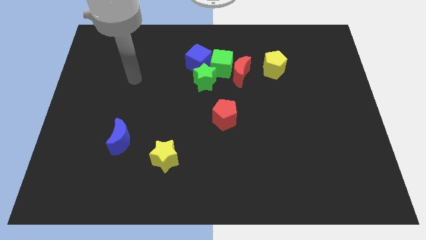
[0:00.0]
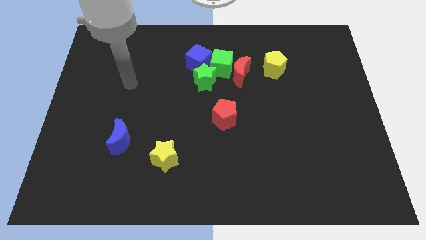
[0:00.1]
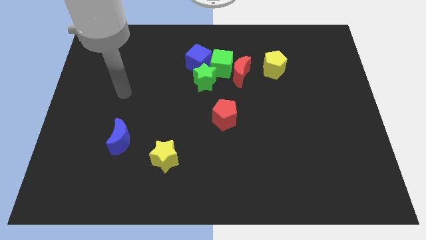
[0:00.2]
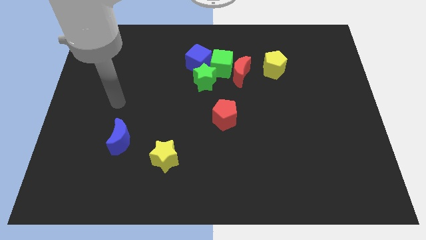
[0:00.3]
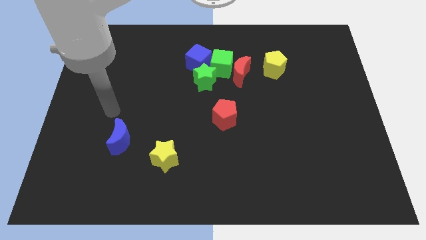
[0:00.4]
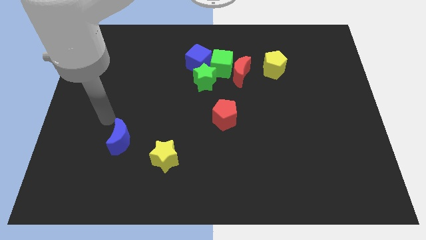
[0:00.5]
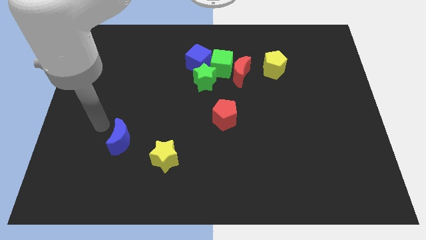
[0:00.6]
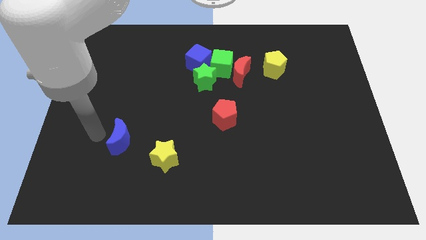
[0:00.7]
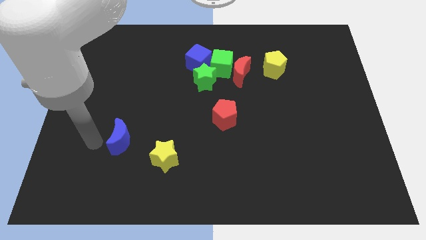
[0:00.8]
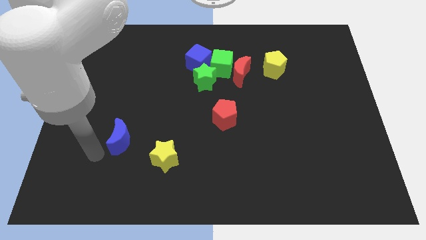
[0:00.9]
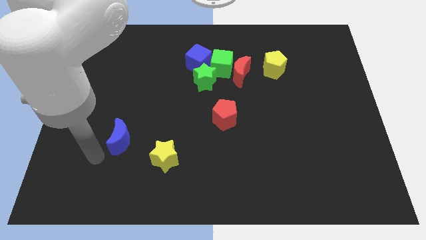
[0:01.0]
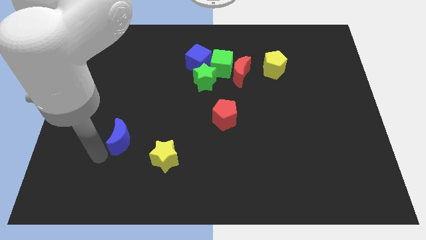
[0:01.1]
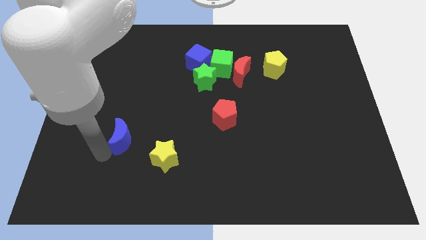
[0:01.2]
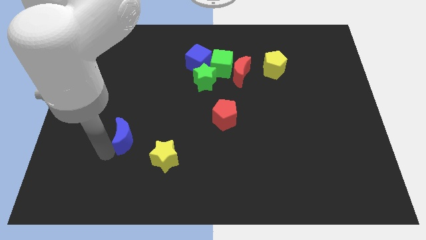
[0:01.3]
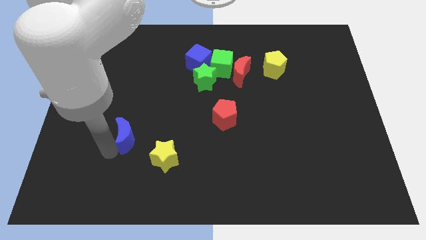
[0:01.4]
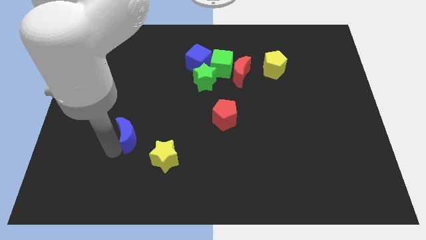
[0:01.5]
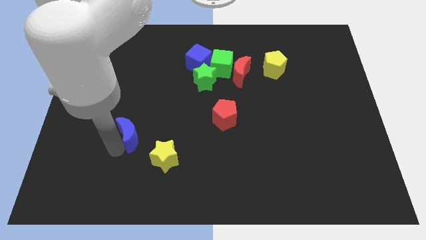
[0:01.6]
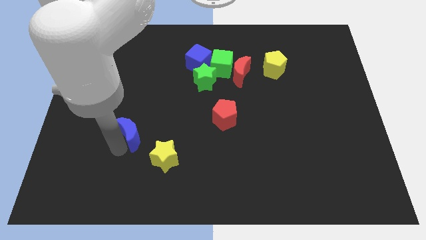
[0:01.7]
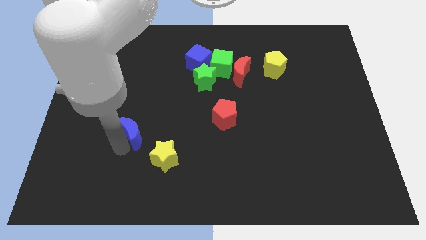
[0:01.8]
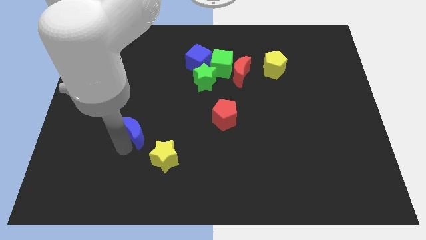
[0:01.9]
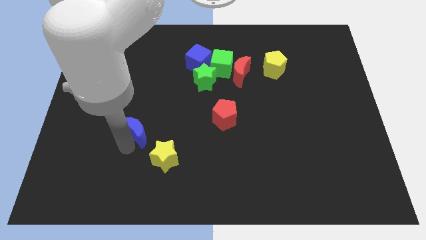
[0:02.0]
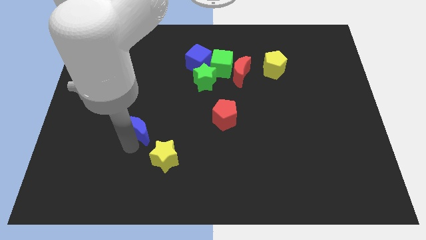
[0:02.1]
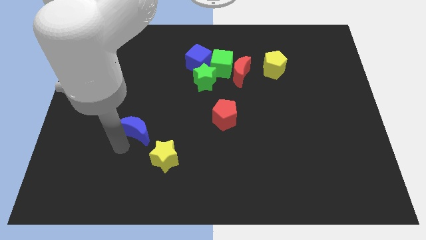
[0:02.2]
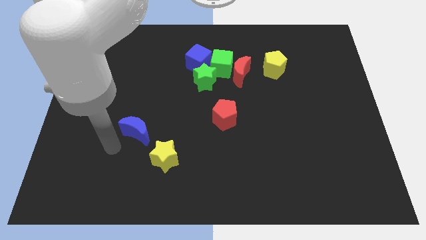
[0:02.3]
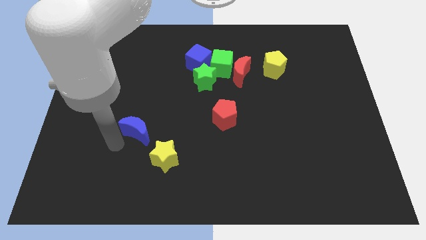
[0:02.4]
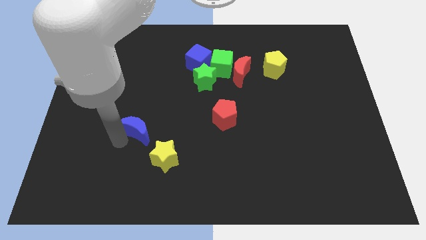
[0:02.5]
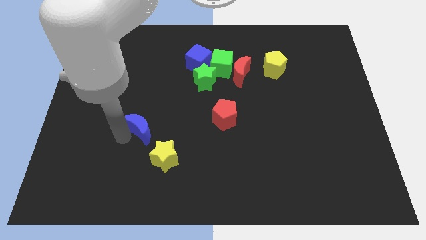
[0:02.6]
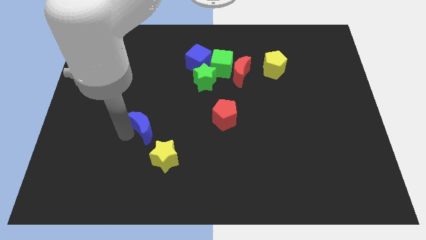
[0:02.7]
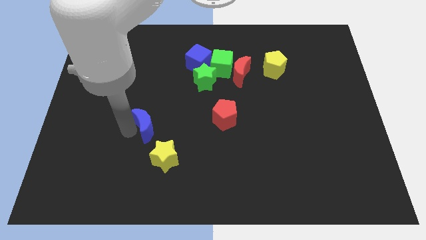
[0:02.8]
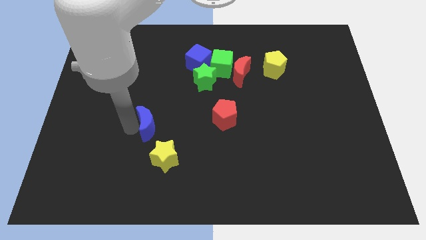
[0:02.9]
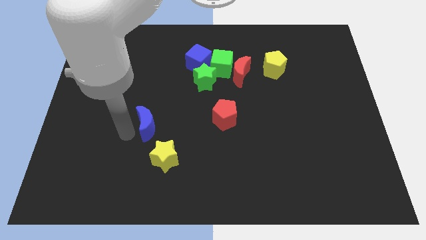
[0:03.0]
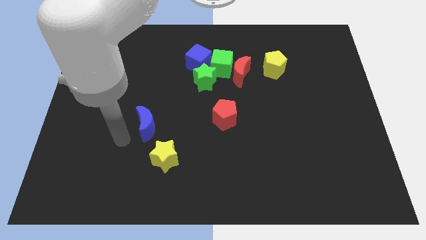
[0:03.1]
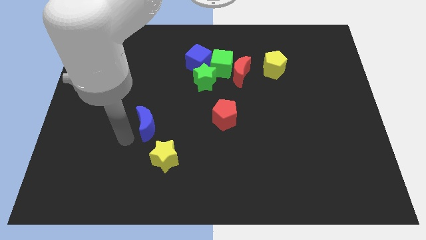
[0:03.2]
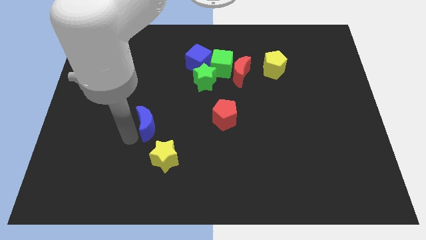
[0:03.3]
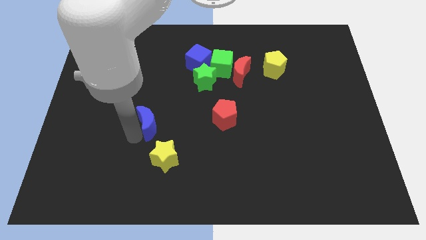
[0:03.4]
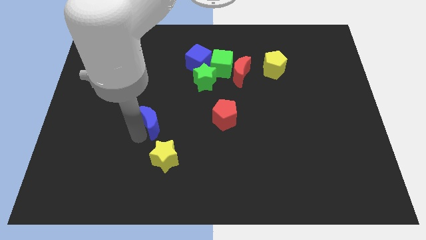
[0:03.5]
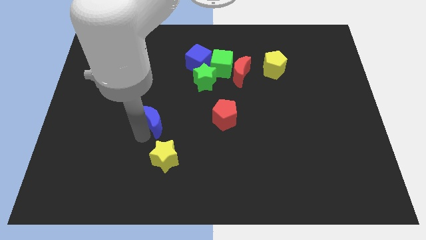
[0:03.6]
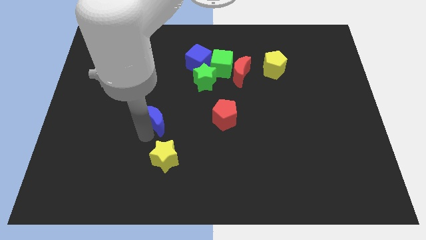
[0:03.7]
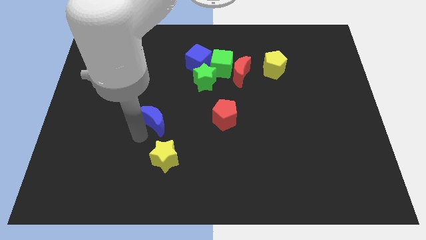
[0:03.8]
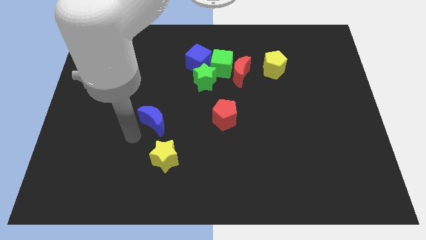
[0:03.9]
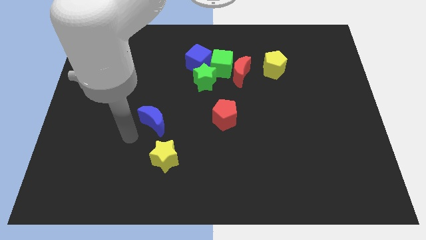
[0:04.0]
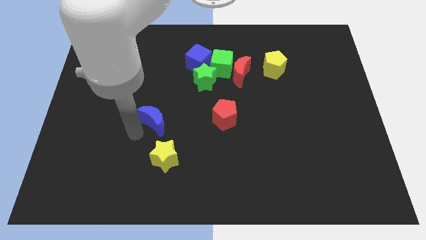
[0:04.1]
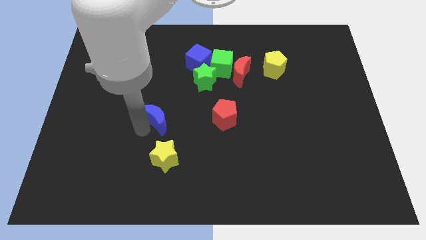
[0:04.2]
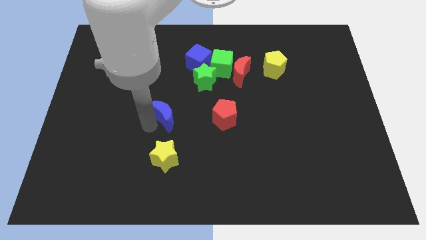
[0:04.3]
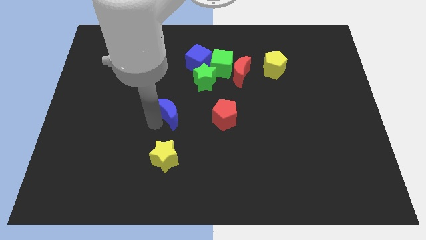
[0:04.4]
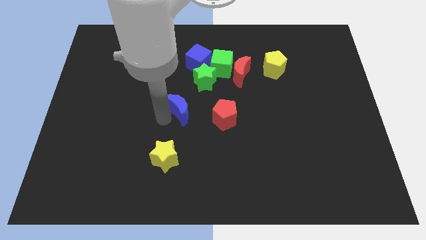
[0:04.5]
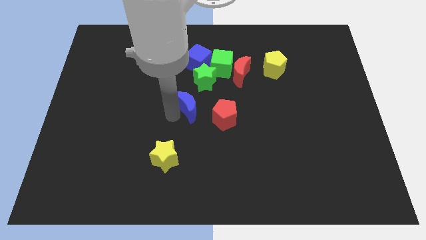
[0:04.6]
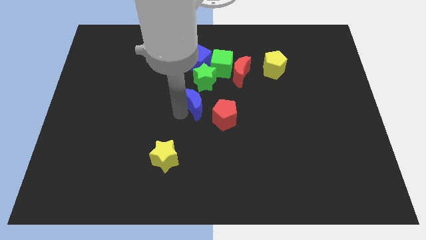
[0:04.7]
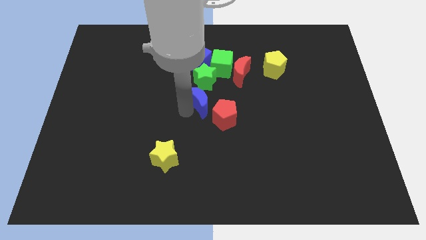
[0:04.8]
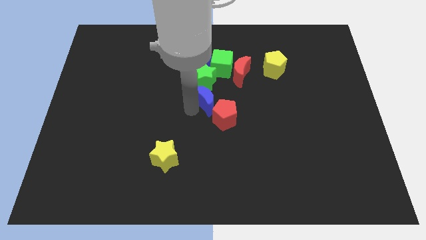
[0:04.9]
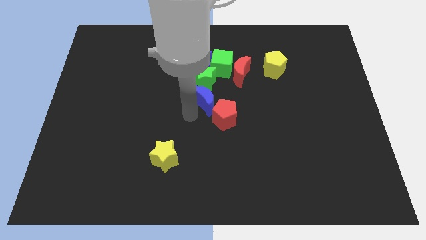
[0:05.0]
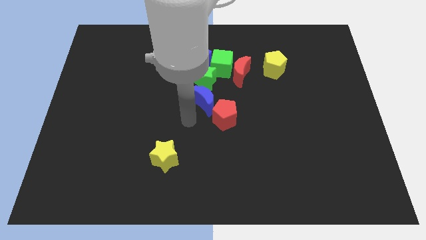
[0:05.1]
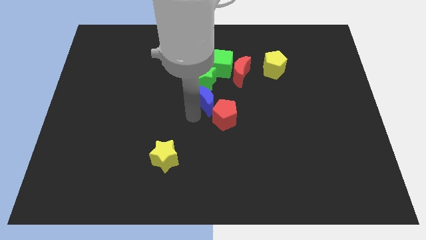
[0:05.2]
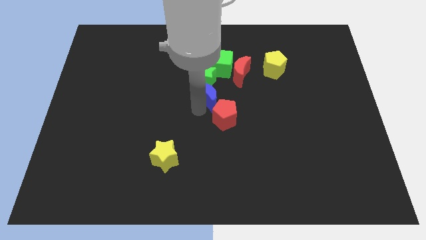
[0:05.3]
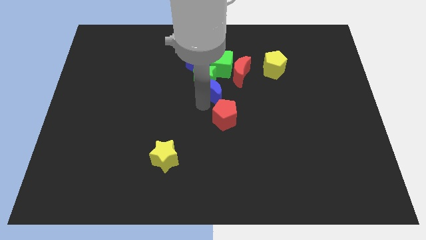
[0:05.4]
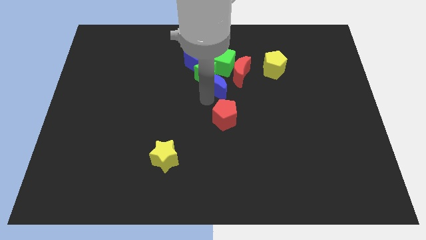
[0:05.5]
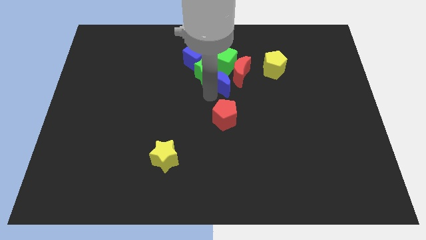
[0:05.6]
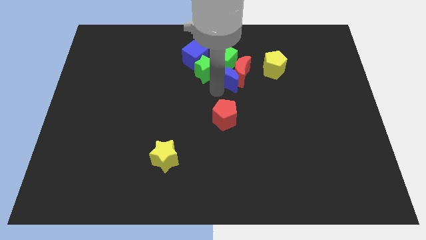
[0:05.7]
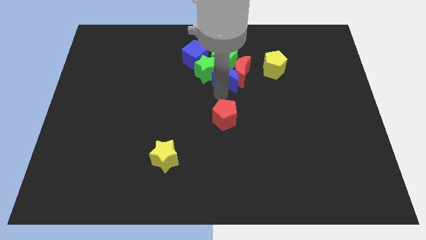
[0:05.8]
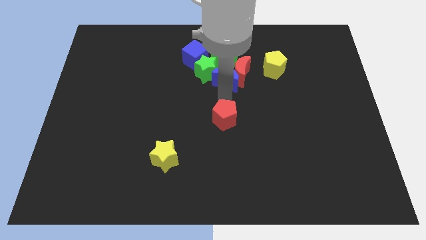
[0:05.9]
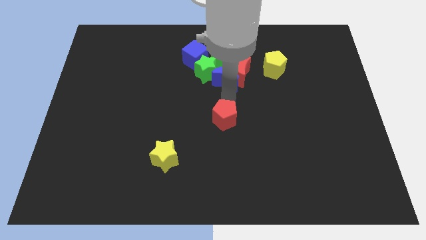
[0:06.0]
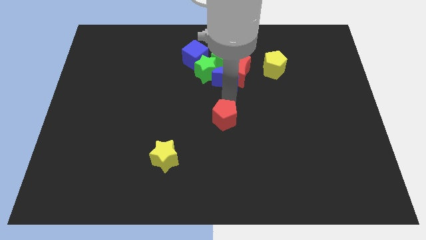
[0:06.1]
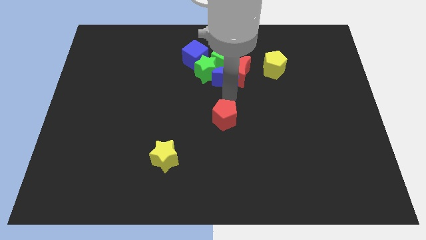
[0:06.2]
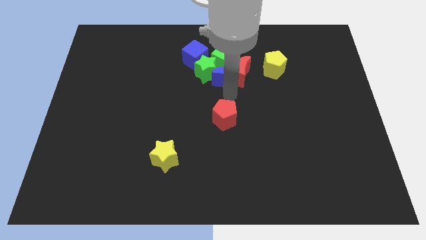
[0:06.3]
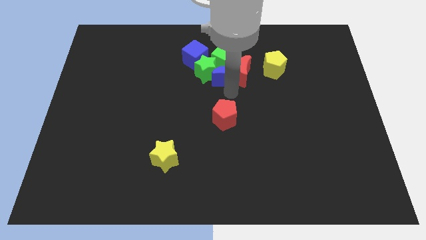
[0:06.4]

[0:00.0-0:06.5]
put the blue moon to the green cube

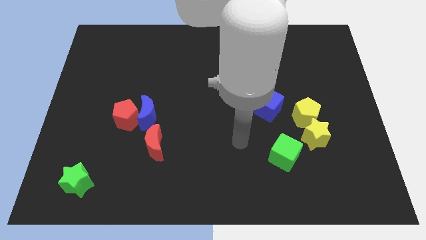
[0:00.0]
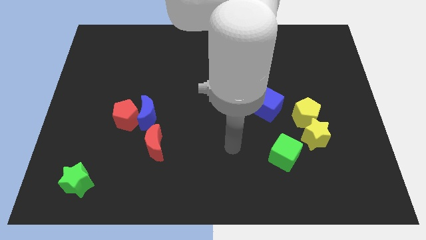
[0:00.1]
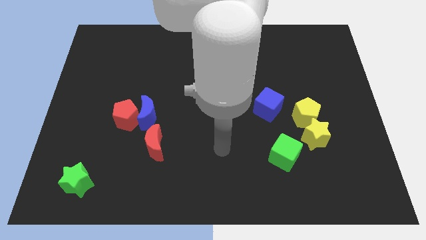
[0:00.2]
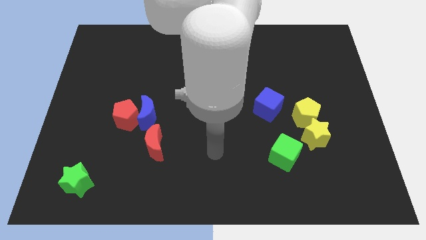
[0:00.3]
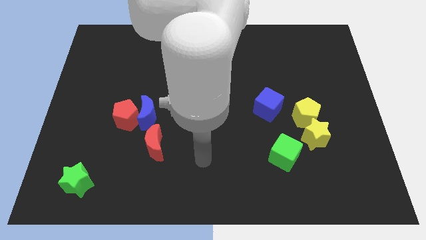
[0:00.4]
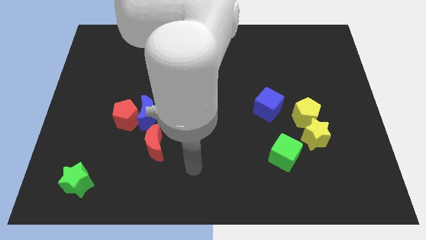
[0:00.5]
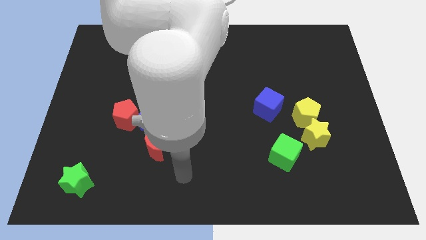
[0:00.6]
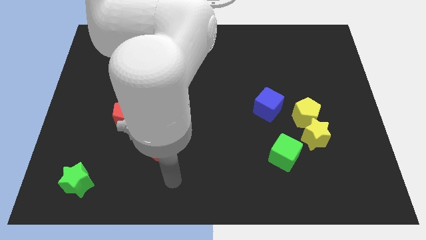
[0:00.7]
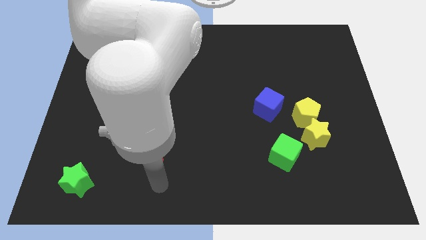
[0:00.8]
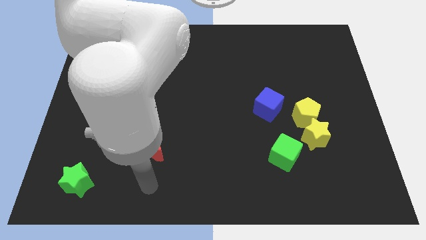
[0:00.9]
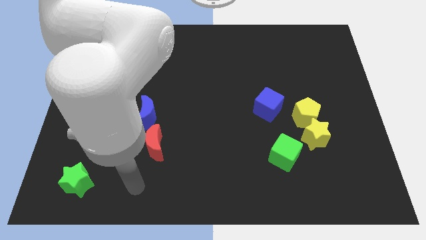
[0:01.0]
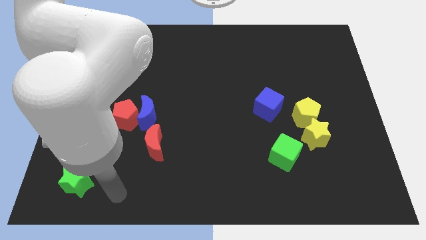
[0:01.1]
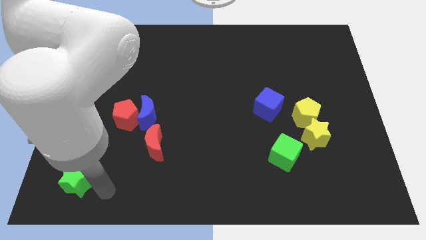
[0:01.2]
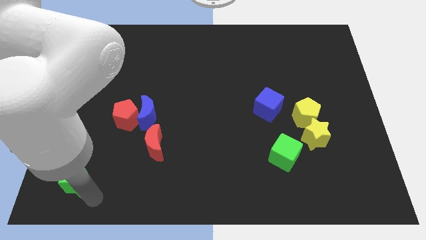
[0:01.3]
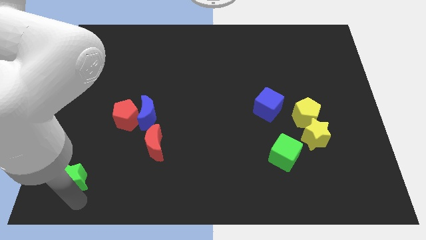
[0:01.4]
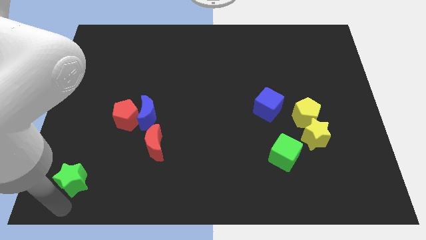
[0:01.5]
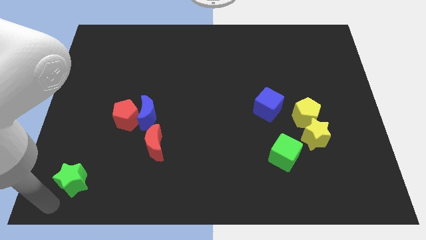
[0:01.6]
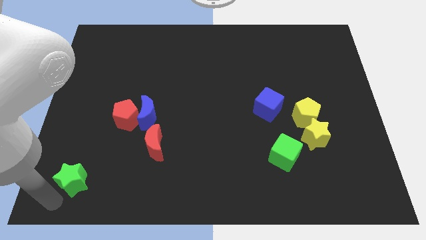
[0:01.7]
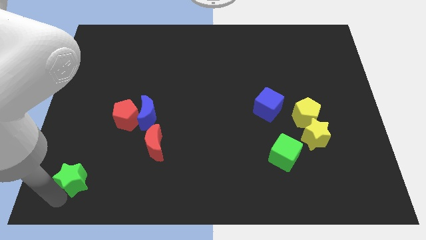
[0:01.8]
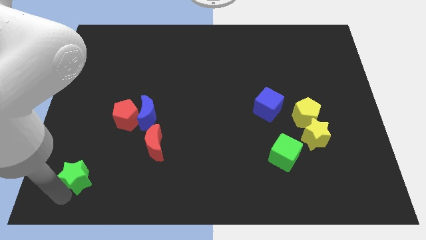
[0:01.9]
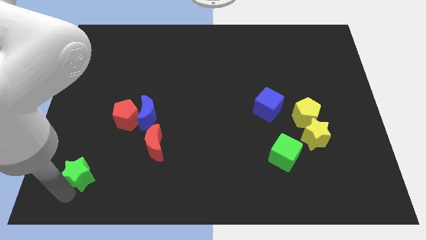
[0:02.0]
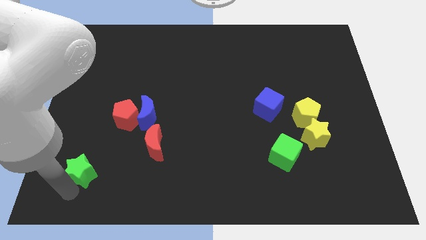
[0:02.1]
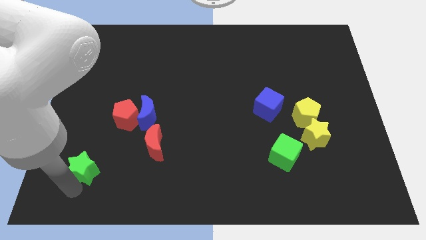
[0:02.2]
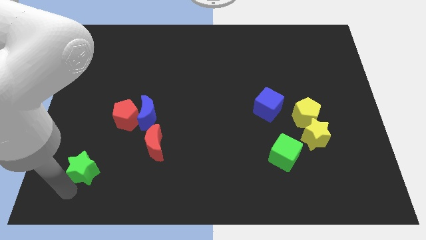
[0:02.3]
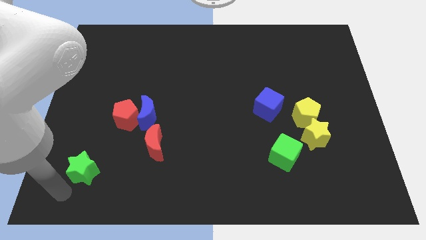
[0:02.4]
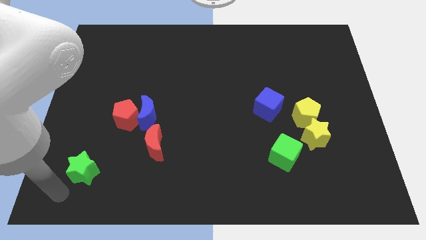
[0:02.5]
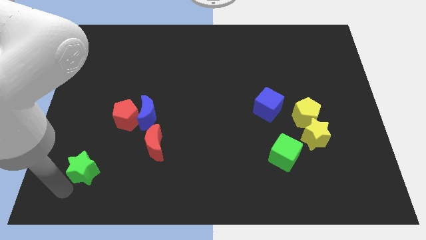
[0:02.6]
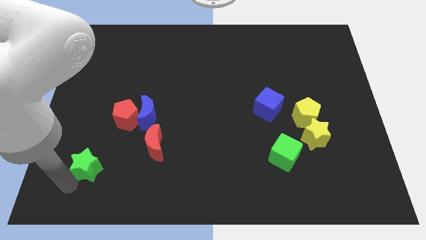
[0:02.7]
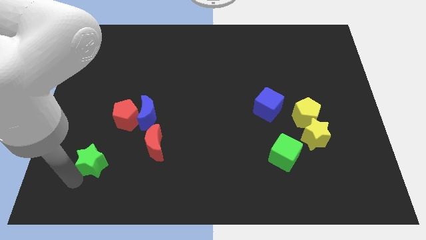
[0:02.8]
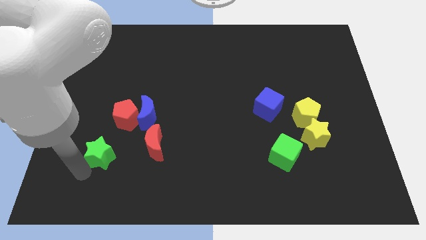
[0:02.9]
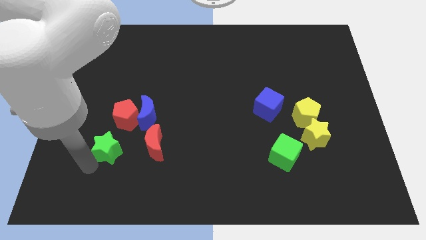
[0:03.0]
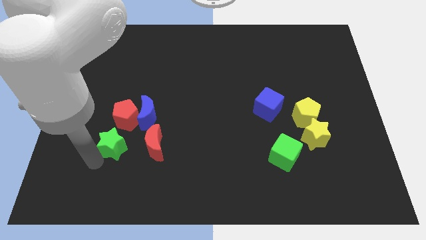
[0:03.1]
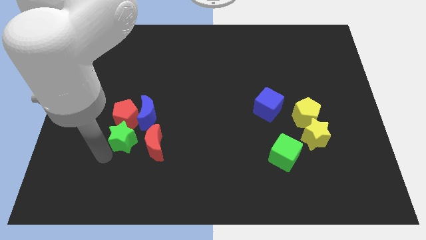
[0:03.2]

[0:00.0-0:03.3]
move the green star close to the red pentagon
